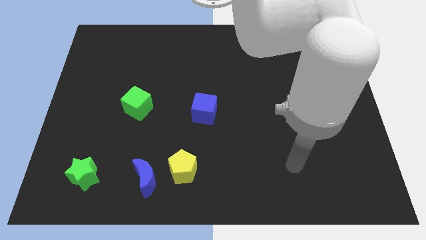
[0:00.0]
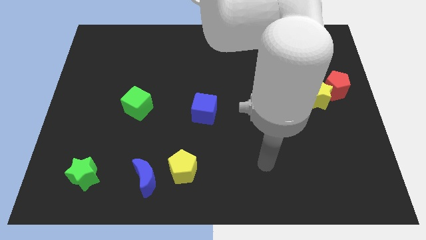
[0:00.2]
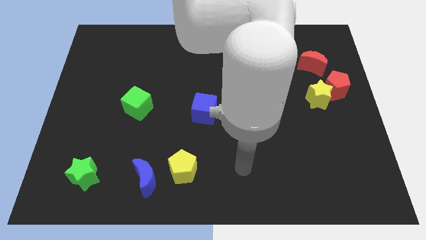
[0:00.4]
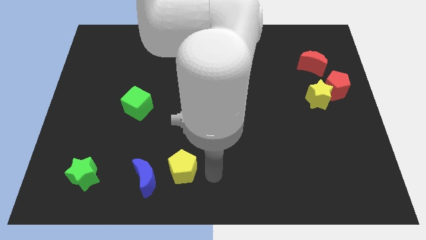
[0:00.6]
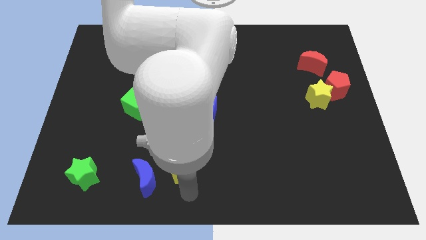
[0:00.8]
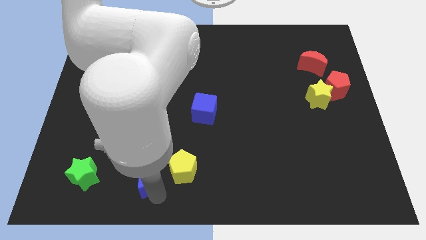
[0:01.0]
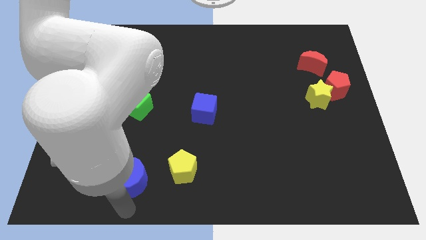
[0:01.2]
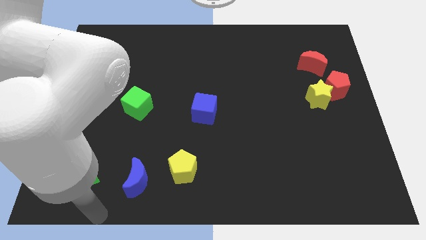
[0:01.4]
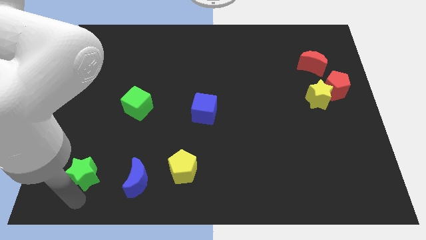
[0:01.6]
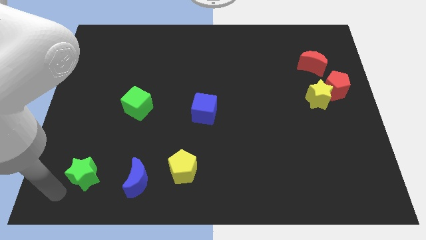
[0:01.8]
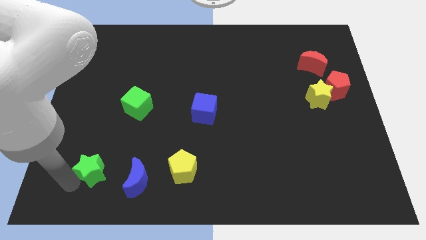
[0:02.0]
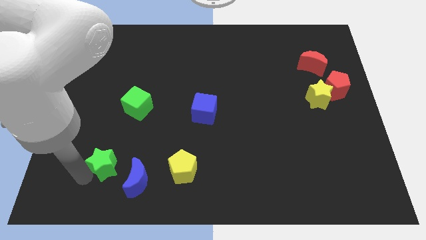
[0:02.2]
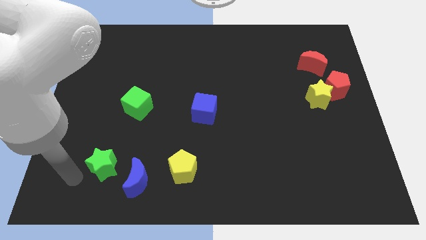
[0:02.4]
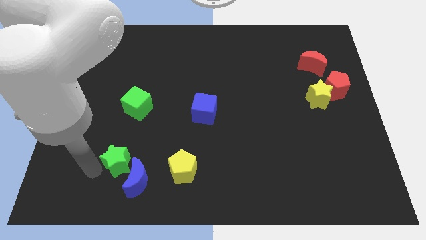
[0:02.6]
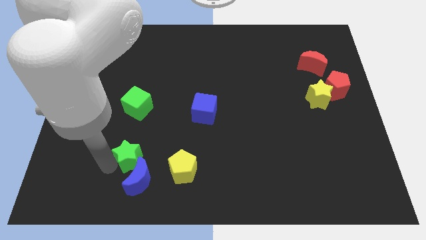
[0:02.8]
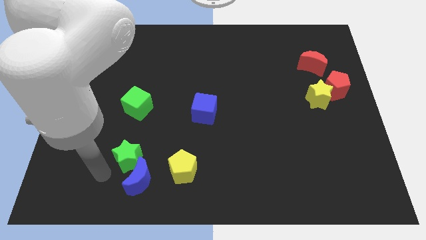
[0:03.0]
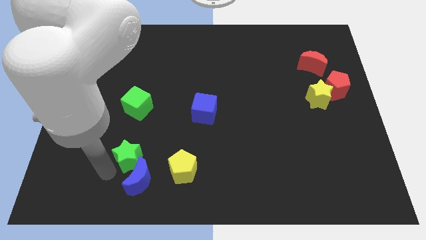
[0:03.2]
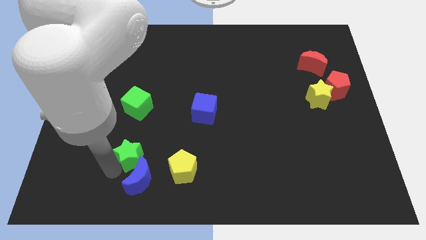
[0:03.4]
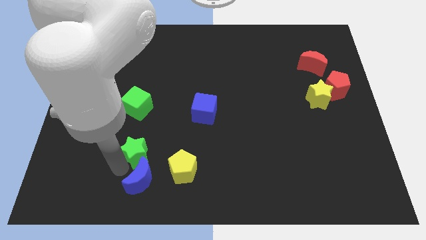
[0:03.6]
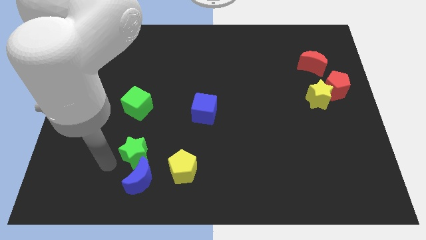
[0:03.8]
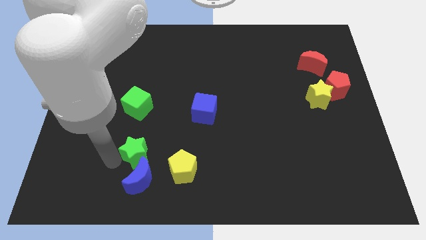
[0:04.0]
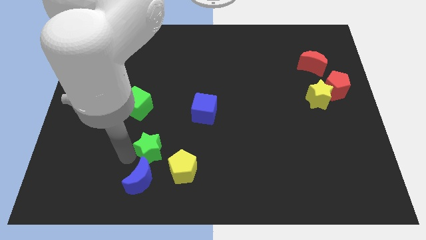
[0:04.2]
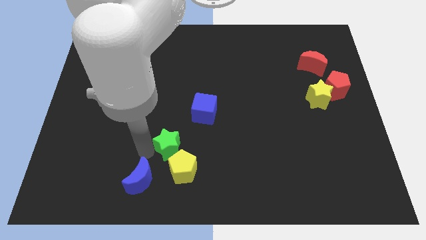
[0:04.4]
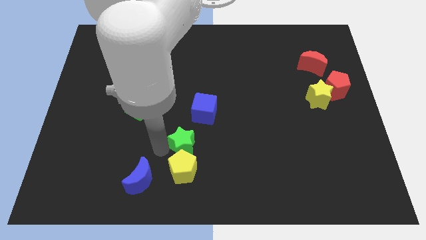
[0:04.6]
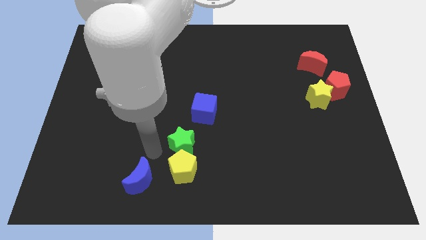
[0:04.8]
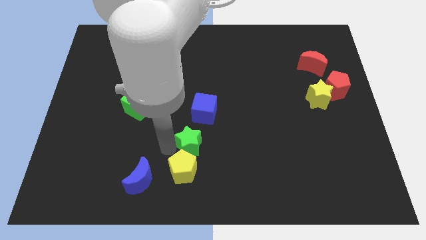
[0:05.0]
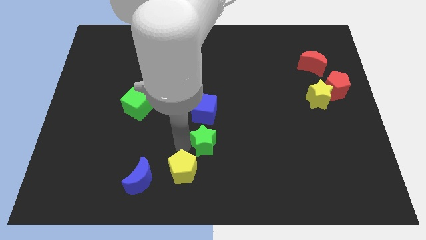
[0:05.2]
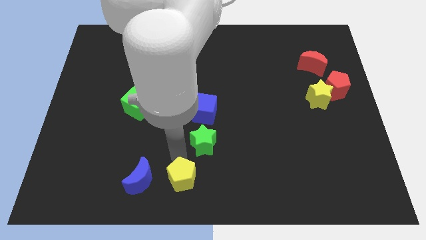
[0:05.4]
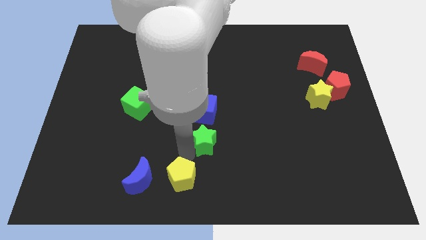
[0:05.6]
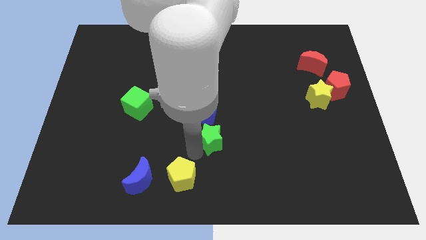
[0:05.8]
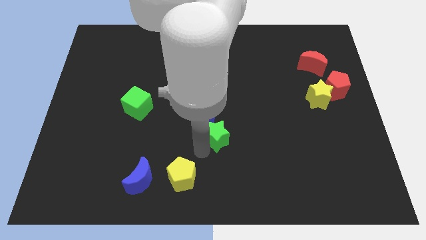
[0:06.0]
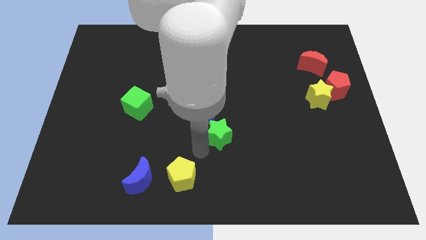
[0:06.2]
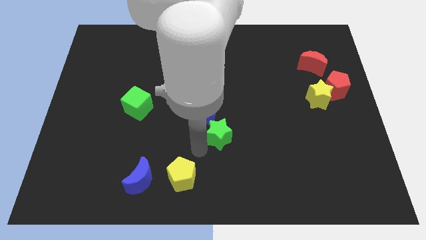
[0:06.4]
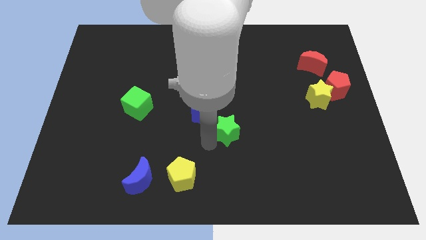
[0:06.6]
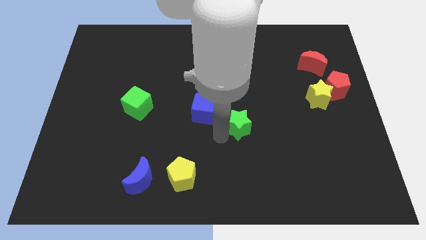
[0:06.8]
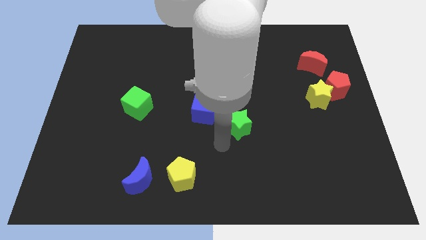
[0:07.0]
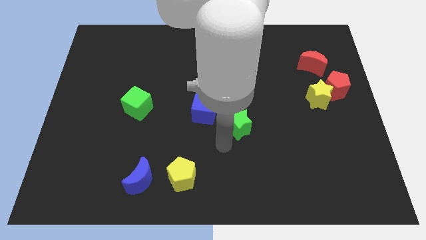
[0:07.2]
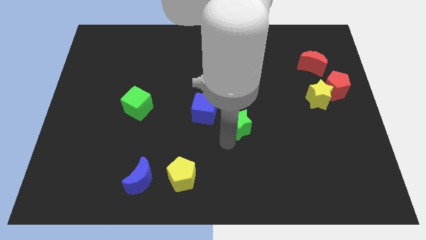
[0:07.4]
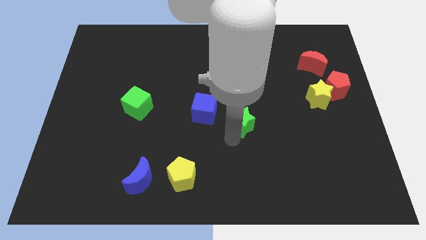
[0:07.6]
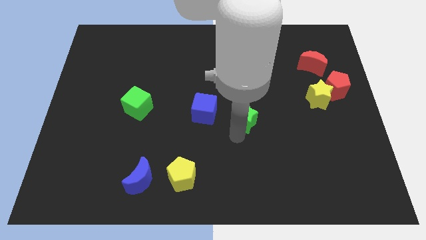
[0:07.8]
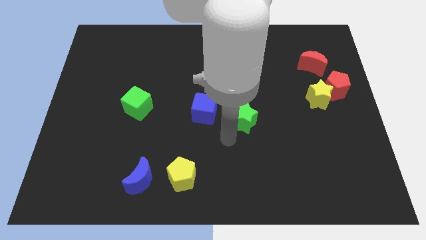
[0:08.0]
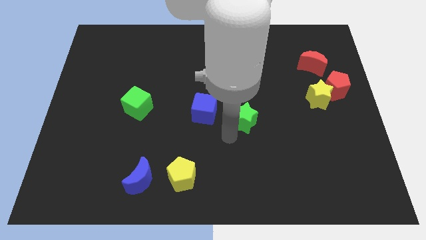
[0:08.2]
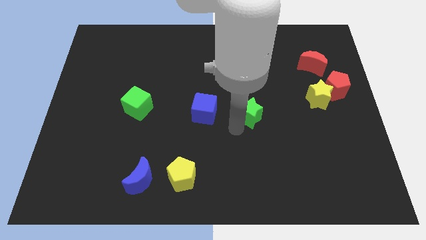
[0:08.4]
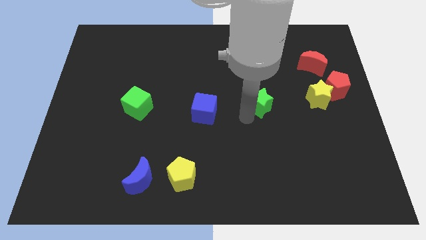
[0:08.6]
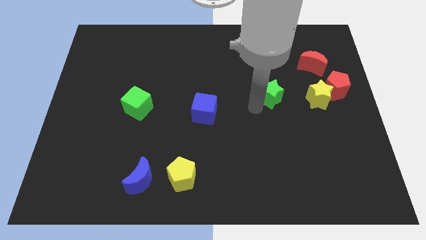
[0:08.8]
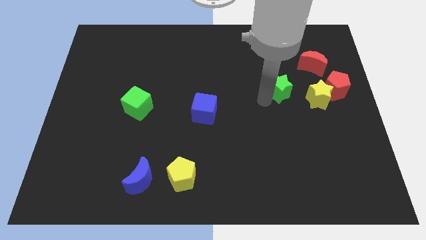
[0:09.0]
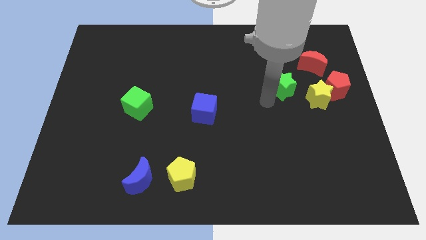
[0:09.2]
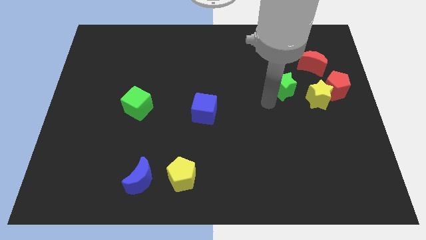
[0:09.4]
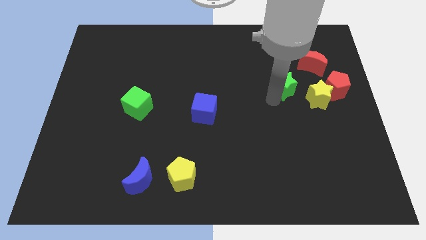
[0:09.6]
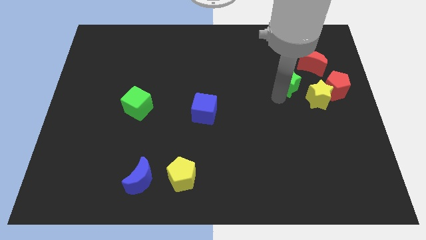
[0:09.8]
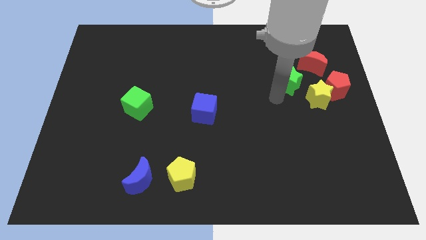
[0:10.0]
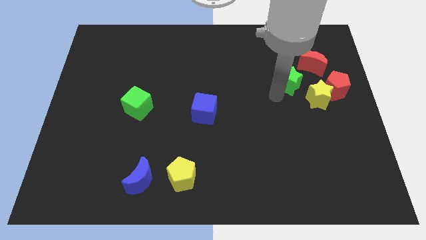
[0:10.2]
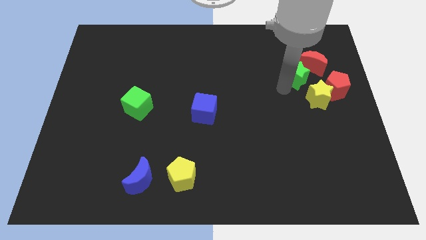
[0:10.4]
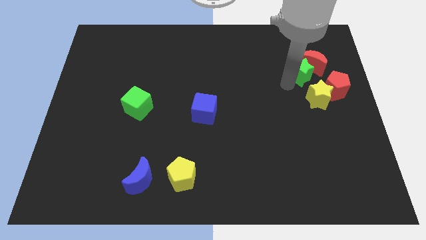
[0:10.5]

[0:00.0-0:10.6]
put the green star to the red moon

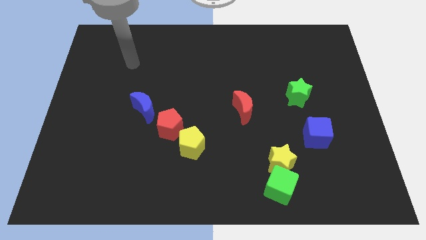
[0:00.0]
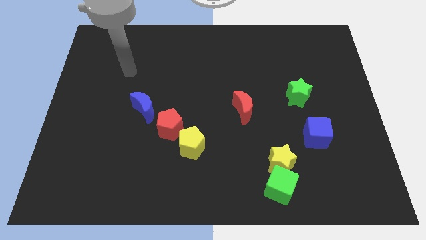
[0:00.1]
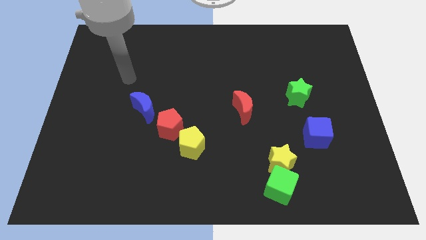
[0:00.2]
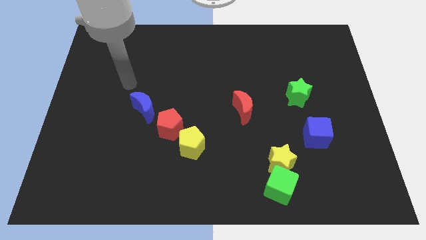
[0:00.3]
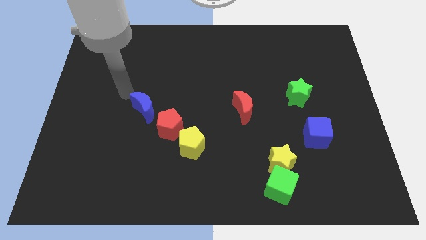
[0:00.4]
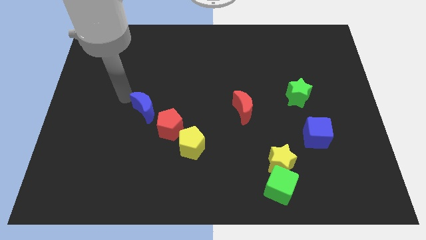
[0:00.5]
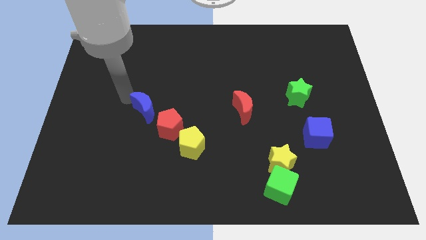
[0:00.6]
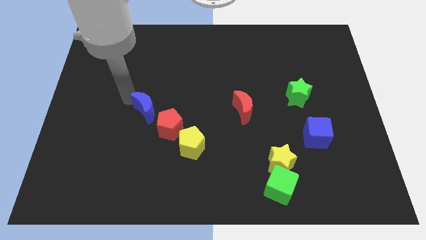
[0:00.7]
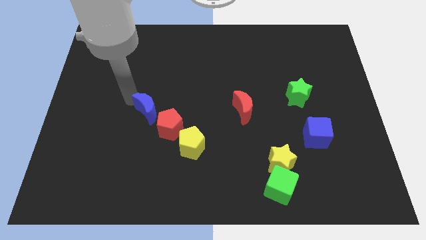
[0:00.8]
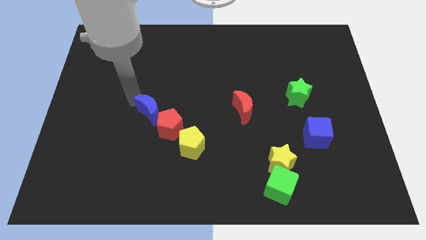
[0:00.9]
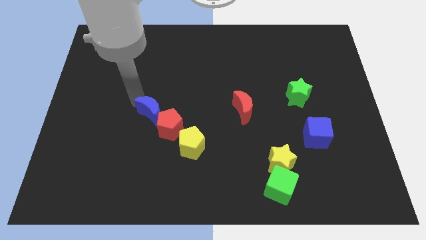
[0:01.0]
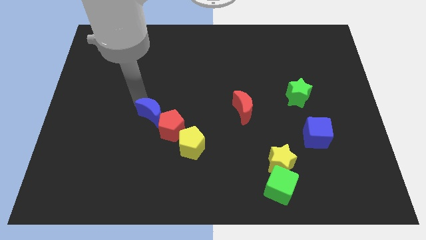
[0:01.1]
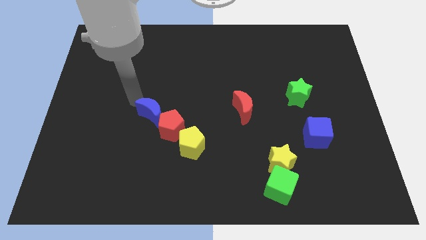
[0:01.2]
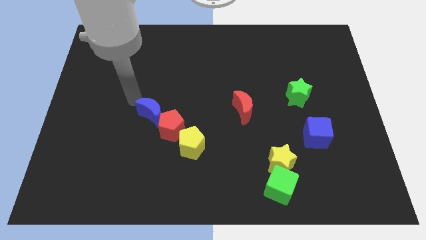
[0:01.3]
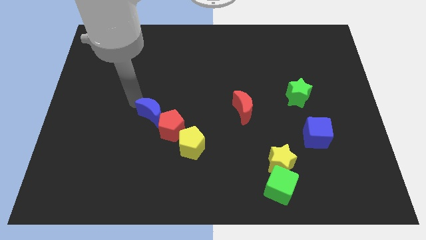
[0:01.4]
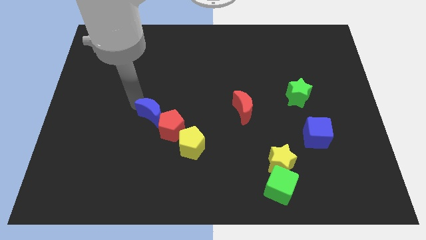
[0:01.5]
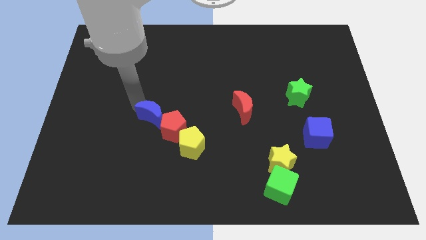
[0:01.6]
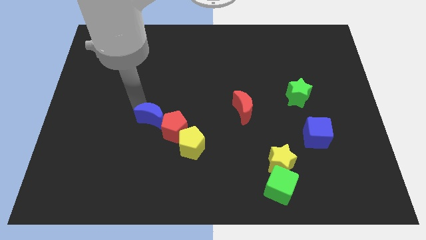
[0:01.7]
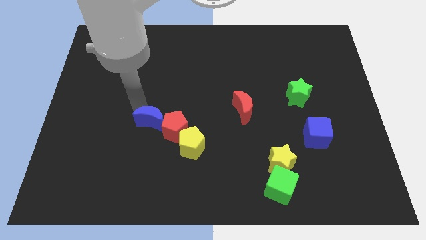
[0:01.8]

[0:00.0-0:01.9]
move the blue moon towards the red pentagon
